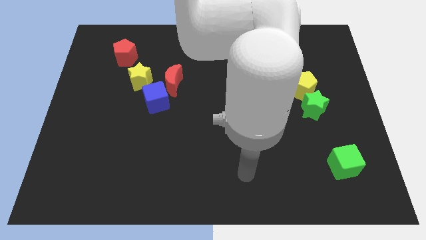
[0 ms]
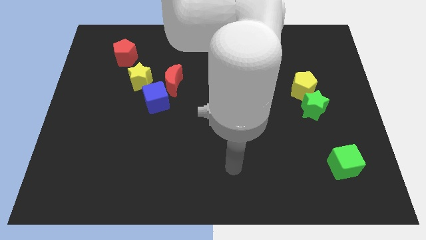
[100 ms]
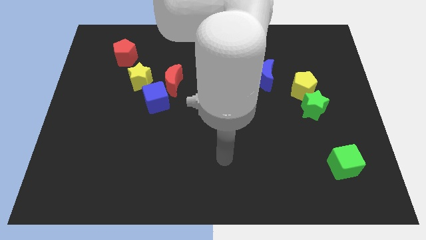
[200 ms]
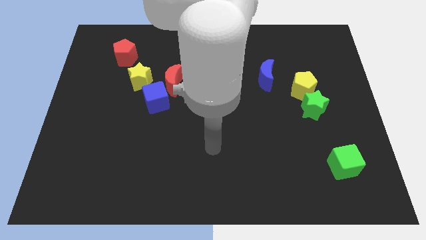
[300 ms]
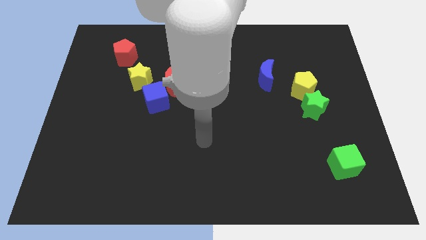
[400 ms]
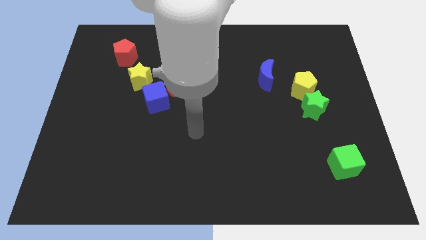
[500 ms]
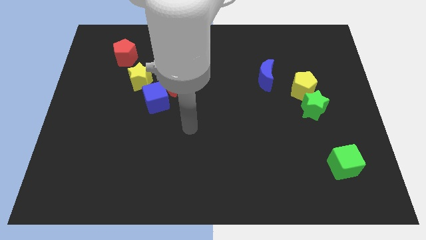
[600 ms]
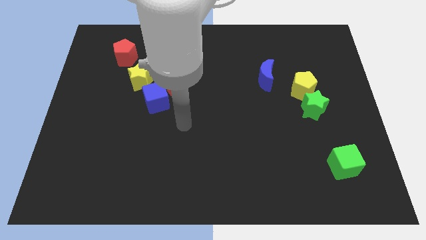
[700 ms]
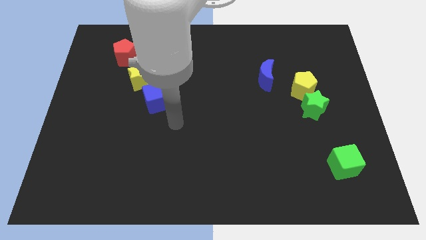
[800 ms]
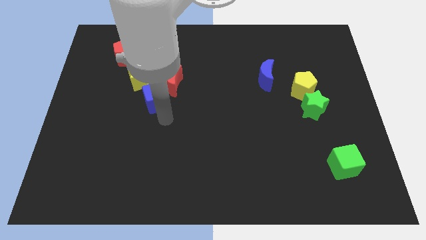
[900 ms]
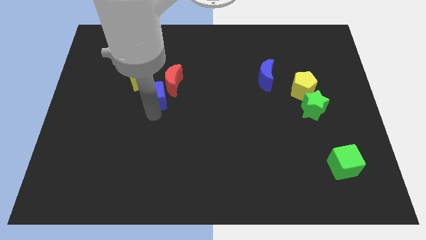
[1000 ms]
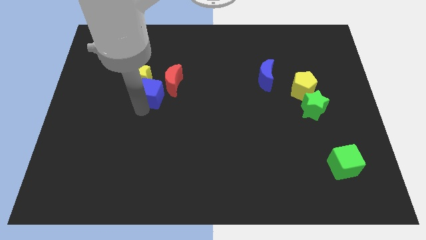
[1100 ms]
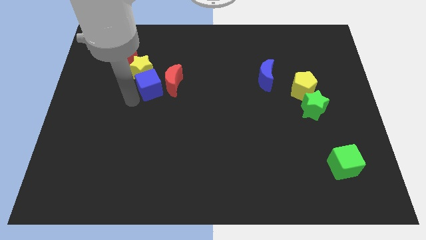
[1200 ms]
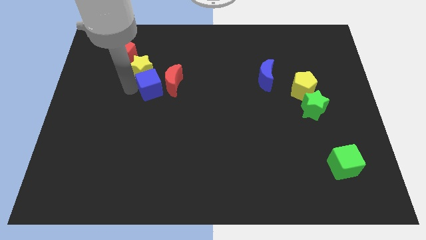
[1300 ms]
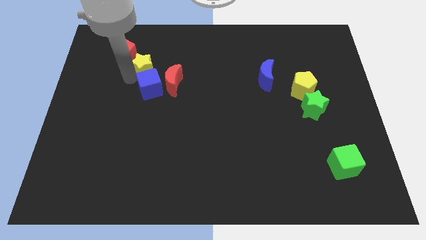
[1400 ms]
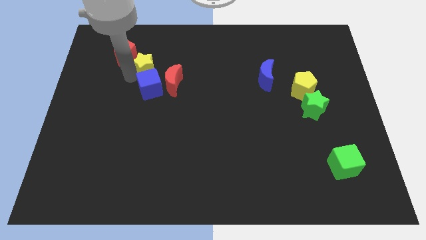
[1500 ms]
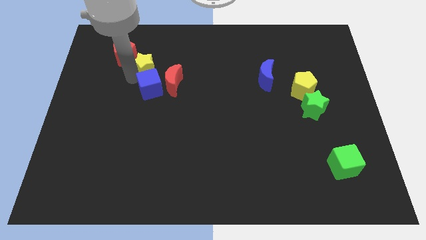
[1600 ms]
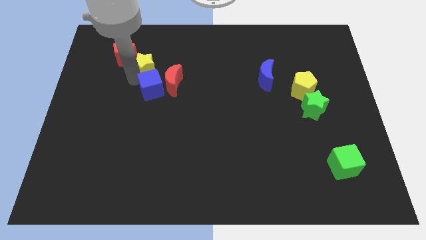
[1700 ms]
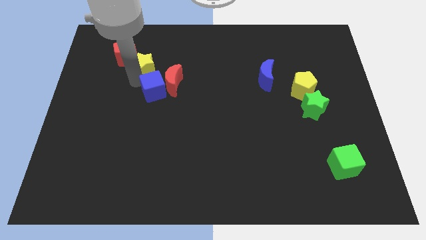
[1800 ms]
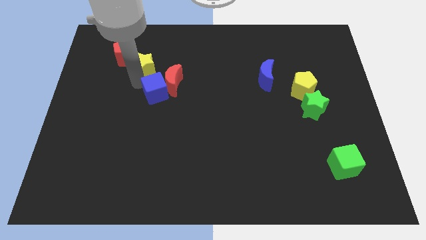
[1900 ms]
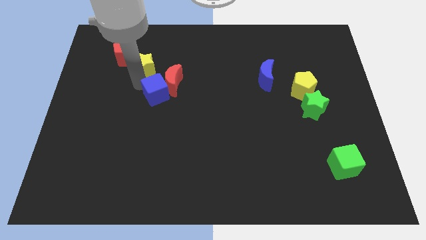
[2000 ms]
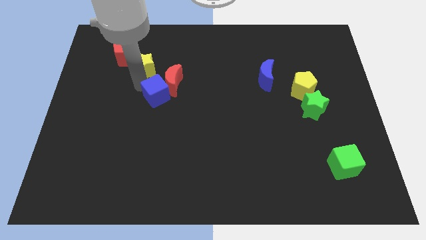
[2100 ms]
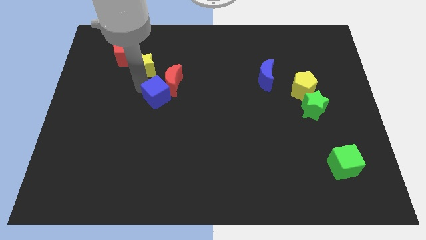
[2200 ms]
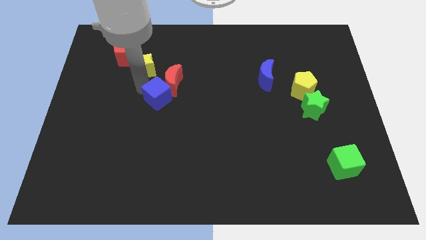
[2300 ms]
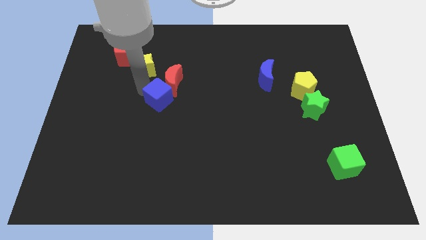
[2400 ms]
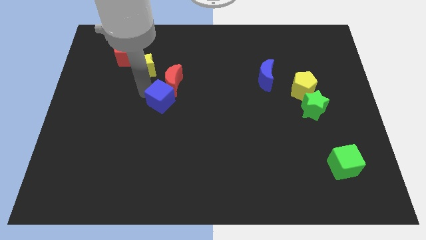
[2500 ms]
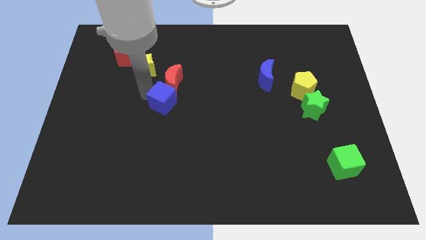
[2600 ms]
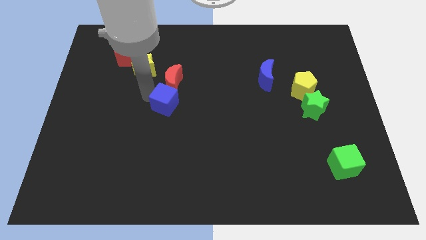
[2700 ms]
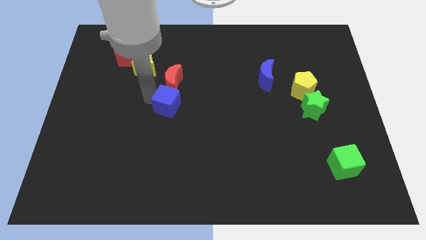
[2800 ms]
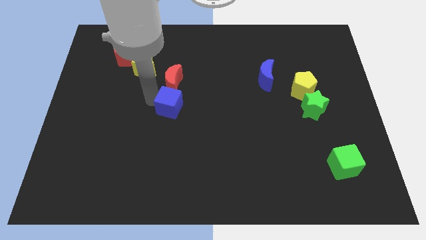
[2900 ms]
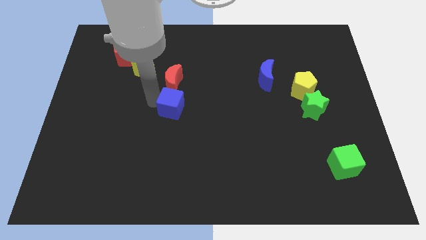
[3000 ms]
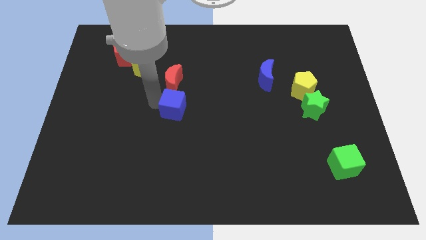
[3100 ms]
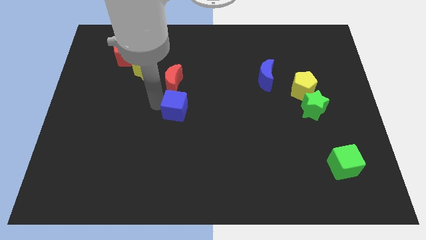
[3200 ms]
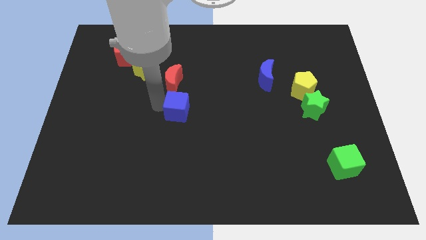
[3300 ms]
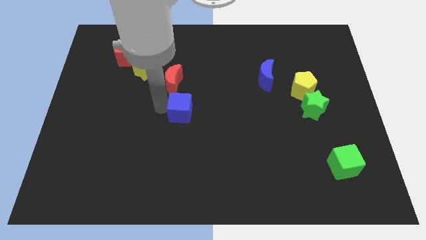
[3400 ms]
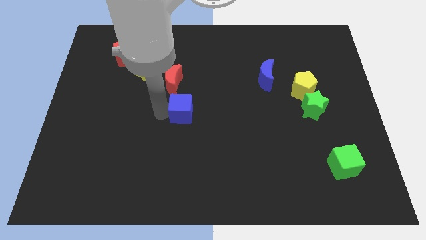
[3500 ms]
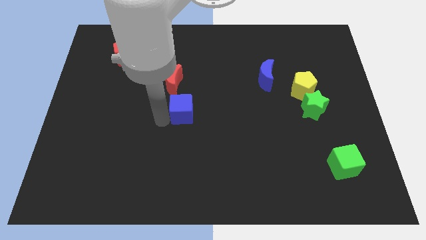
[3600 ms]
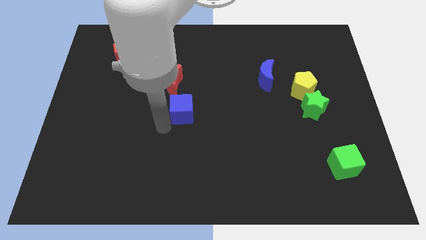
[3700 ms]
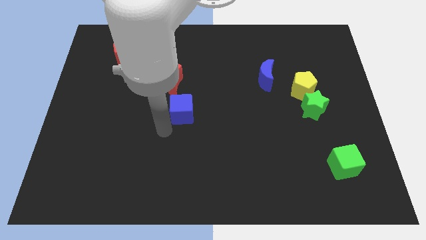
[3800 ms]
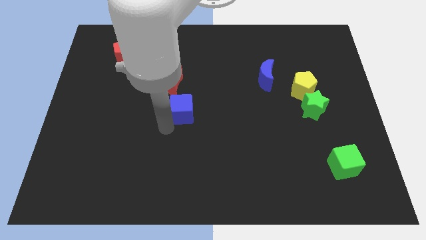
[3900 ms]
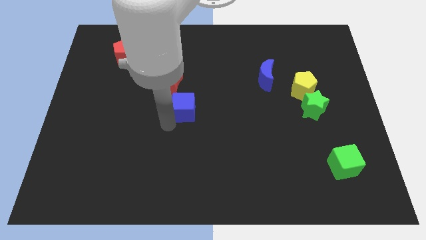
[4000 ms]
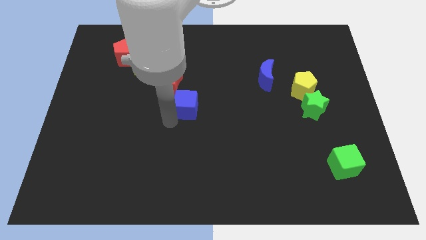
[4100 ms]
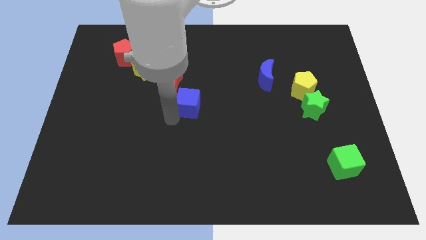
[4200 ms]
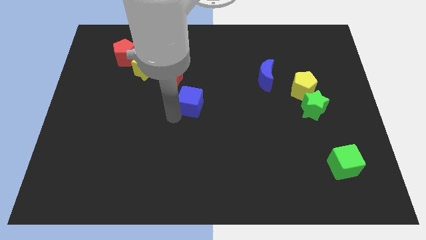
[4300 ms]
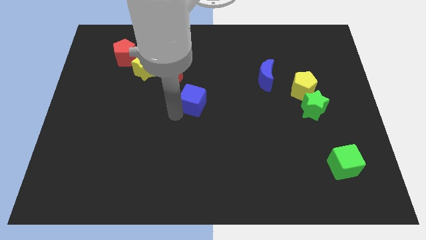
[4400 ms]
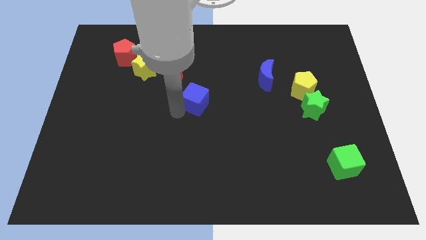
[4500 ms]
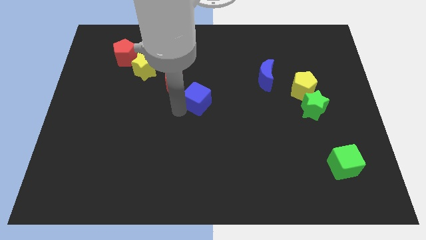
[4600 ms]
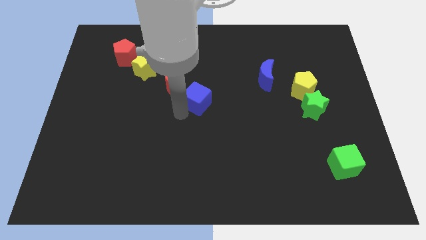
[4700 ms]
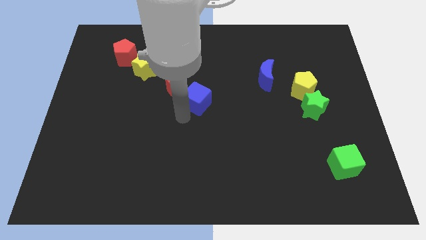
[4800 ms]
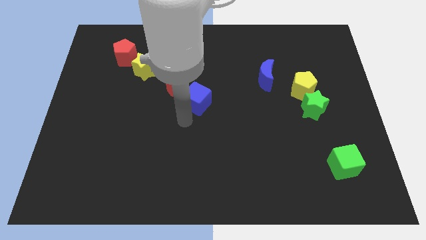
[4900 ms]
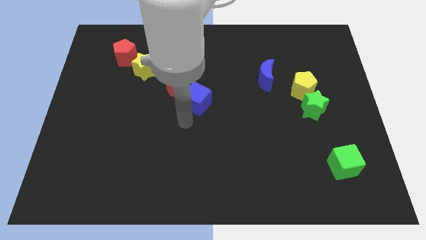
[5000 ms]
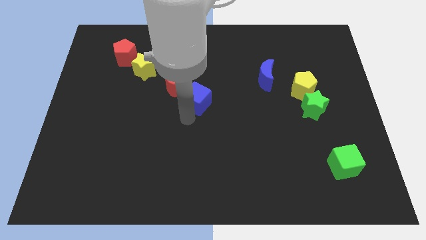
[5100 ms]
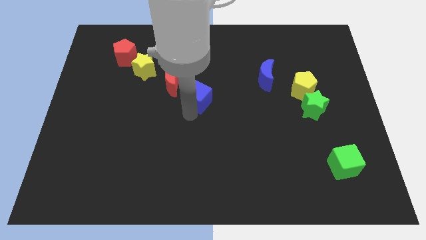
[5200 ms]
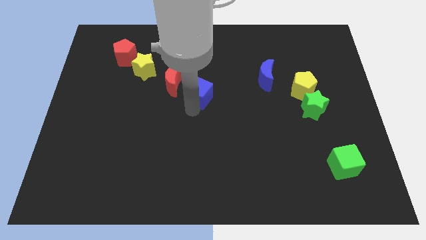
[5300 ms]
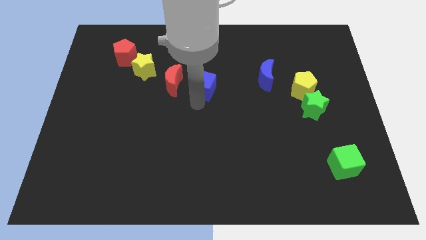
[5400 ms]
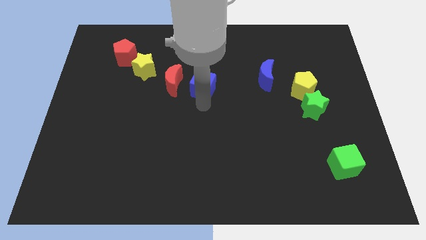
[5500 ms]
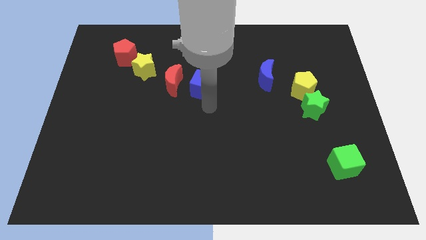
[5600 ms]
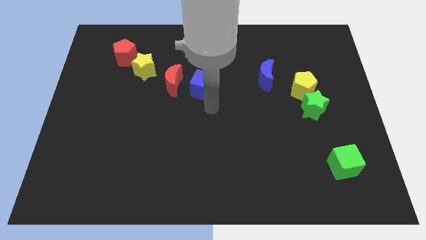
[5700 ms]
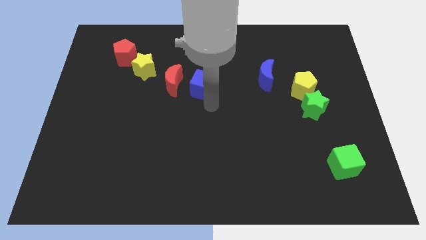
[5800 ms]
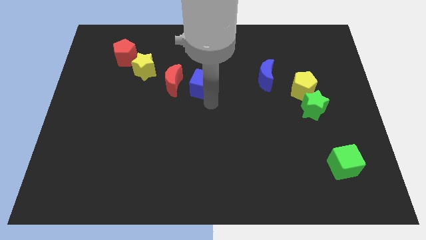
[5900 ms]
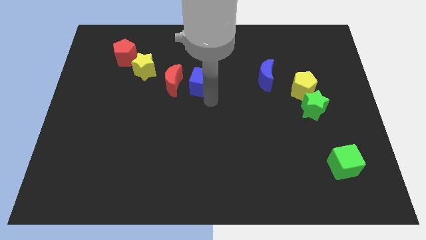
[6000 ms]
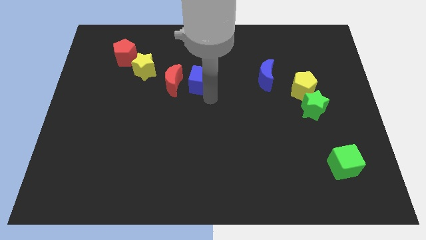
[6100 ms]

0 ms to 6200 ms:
push the blue cube to the top right of the red moon
